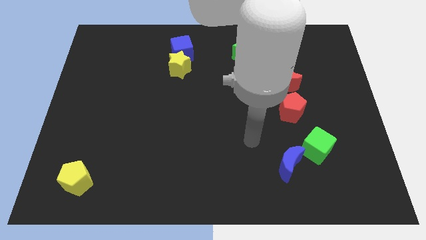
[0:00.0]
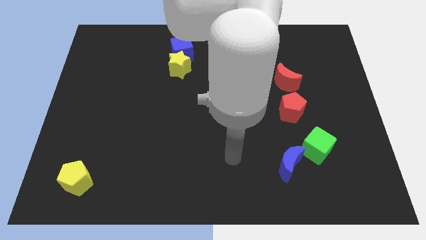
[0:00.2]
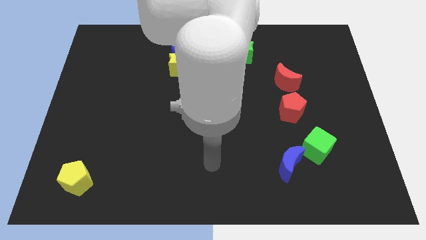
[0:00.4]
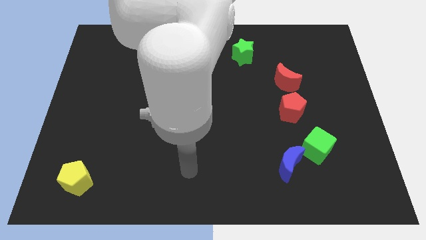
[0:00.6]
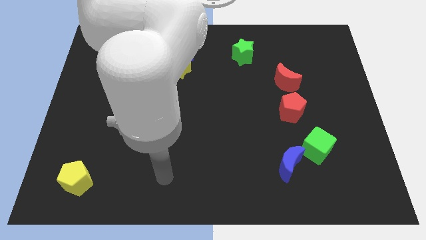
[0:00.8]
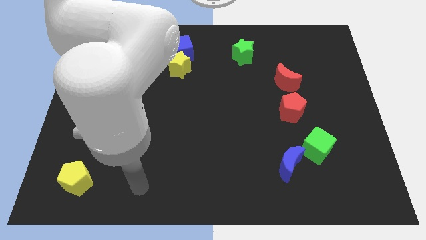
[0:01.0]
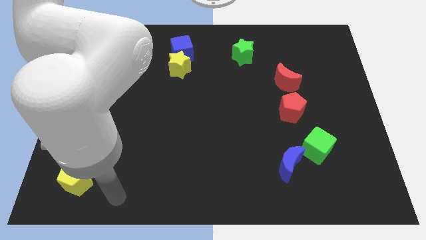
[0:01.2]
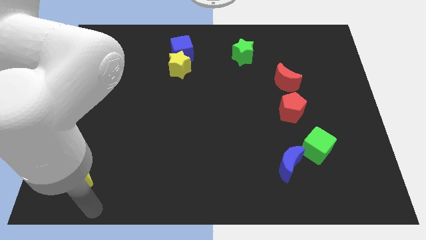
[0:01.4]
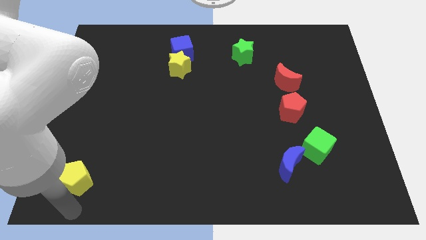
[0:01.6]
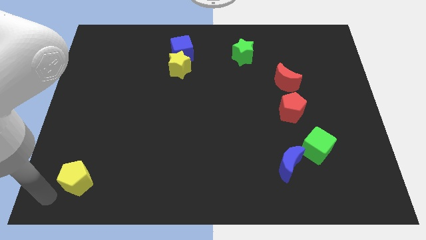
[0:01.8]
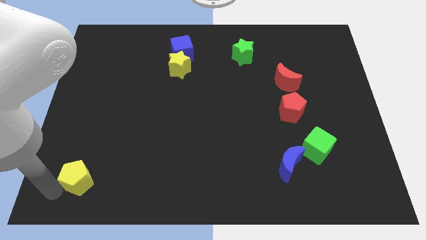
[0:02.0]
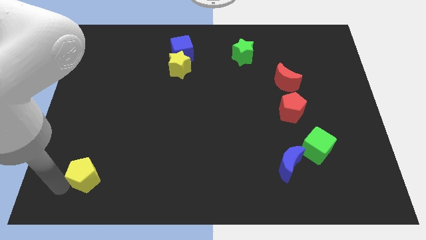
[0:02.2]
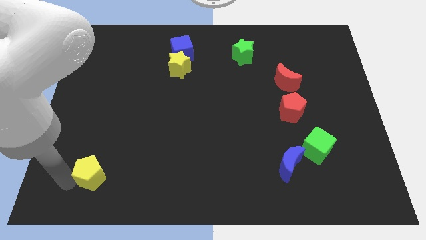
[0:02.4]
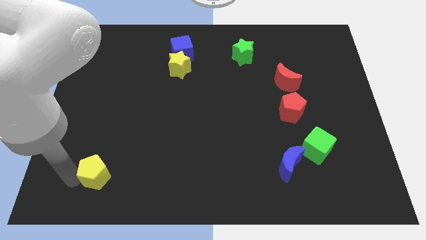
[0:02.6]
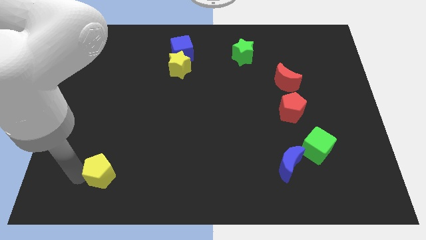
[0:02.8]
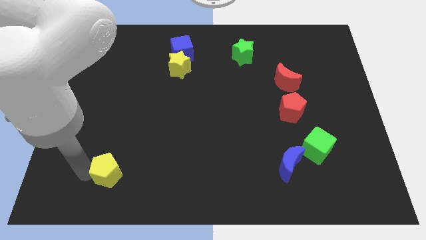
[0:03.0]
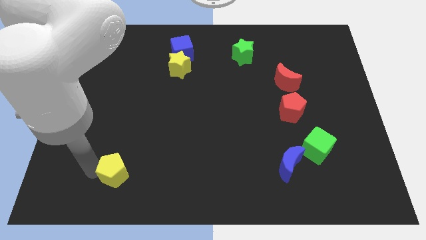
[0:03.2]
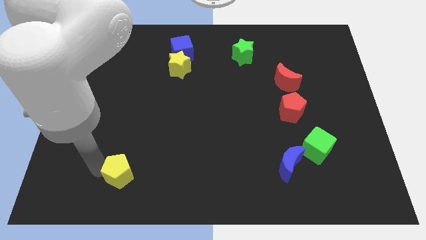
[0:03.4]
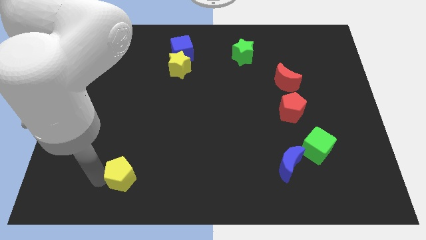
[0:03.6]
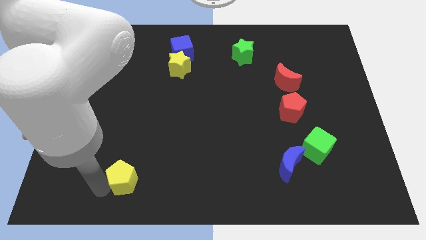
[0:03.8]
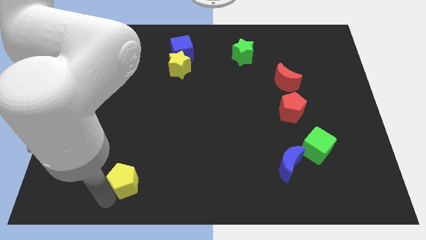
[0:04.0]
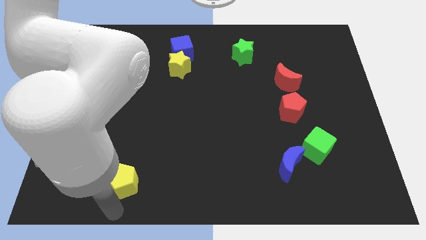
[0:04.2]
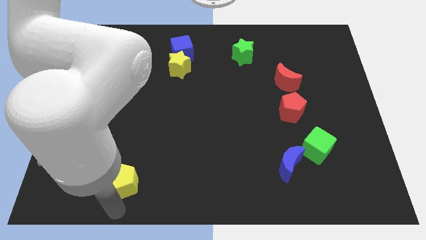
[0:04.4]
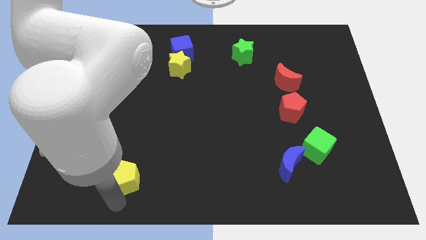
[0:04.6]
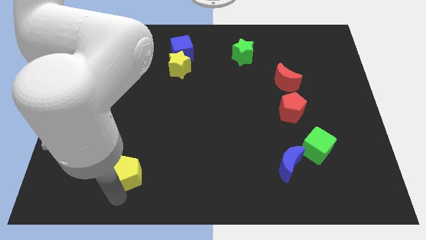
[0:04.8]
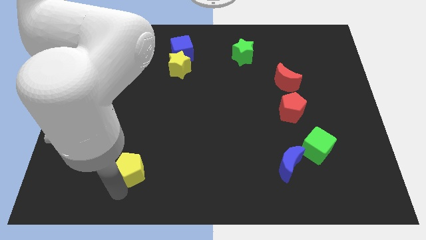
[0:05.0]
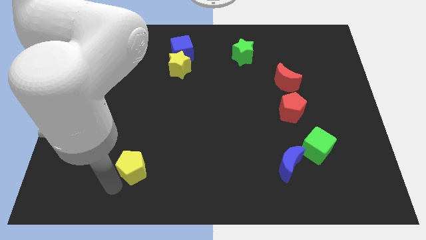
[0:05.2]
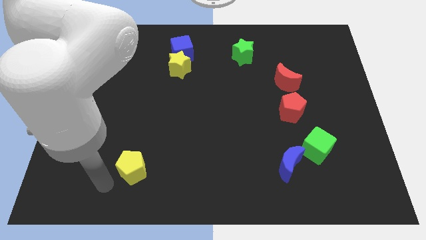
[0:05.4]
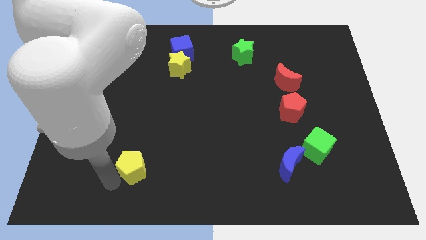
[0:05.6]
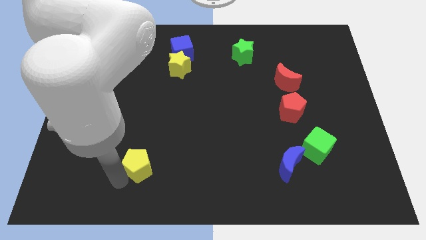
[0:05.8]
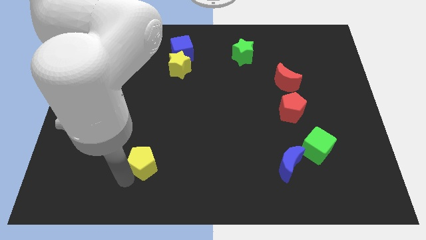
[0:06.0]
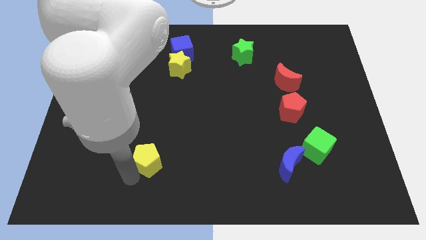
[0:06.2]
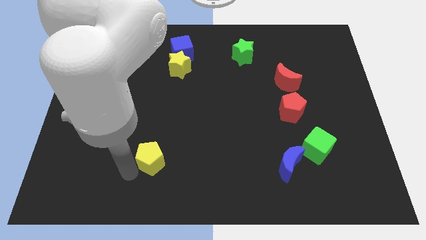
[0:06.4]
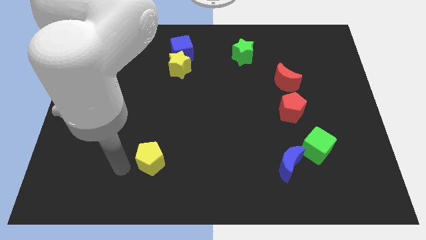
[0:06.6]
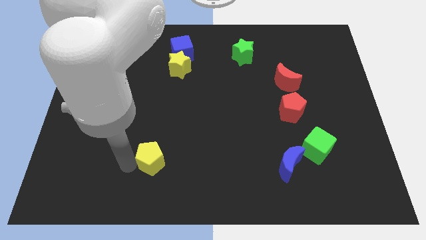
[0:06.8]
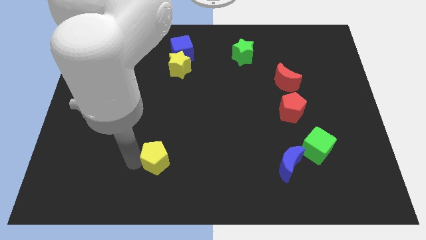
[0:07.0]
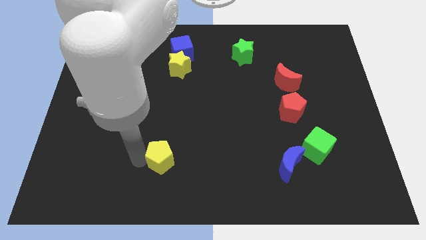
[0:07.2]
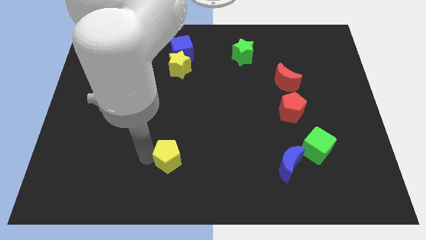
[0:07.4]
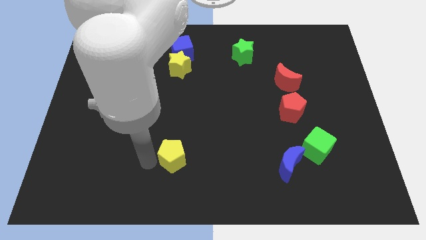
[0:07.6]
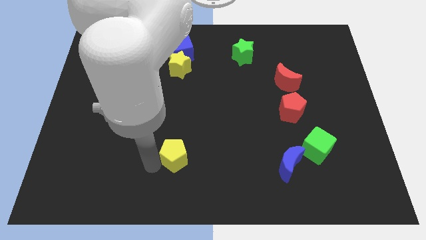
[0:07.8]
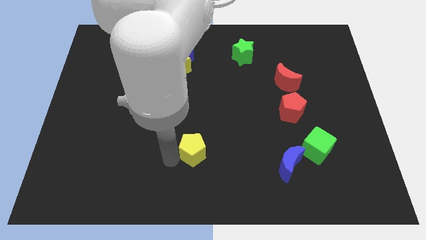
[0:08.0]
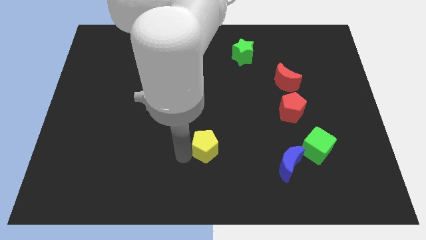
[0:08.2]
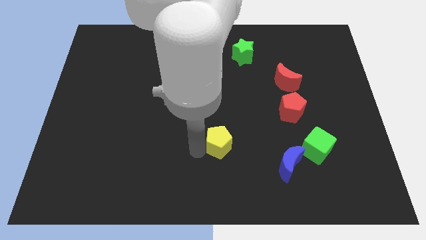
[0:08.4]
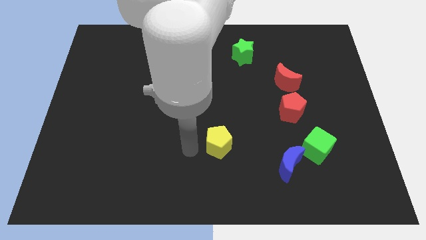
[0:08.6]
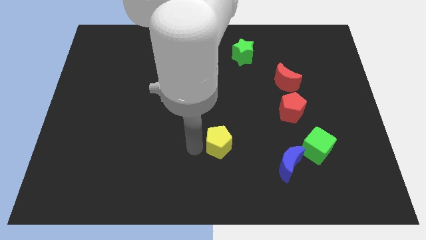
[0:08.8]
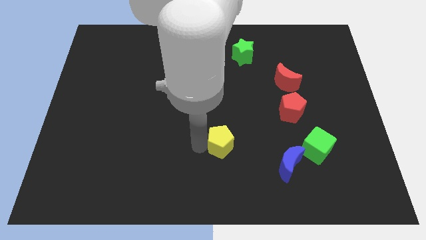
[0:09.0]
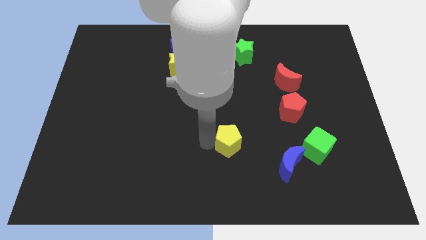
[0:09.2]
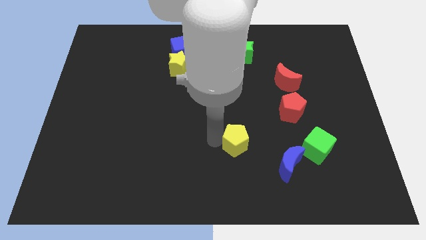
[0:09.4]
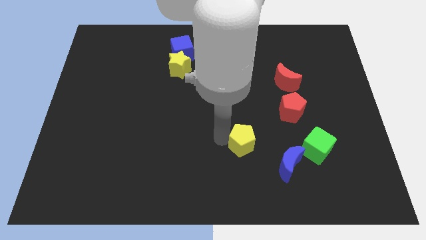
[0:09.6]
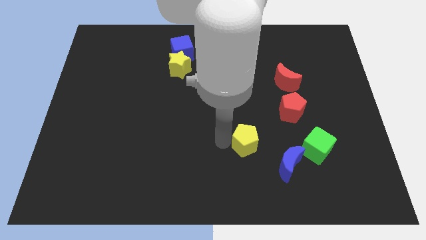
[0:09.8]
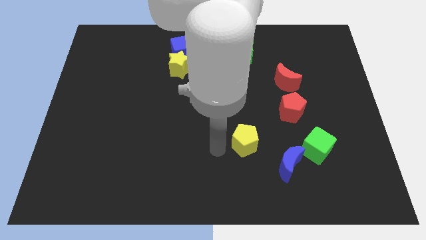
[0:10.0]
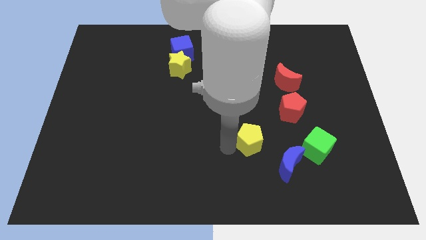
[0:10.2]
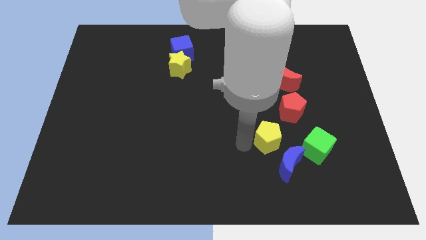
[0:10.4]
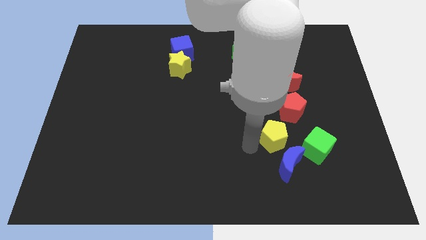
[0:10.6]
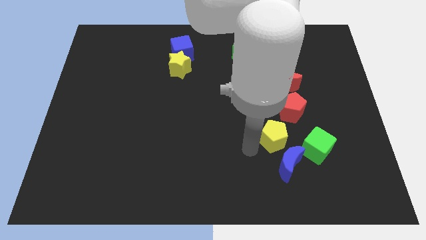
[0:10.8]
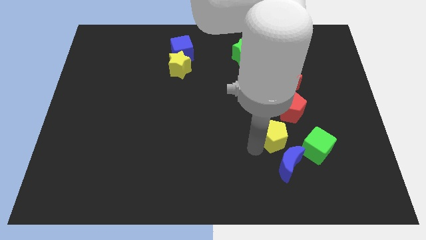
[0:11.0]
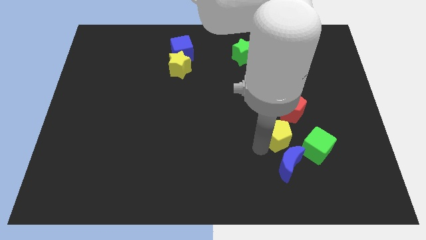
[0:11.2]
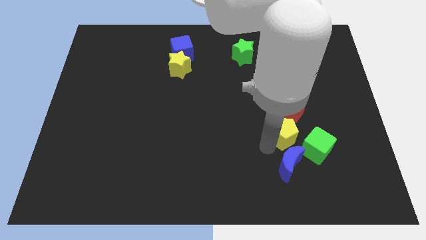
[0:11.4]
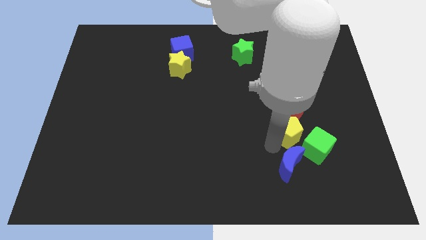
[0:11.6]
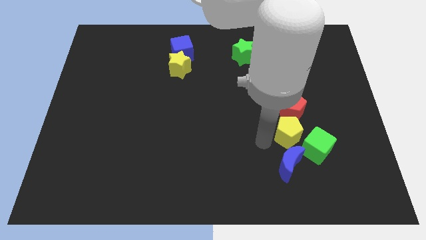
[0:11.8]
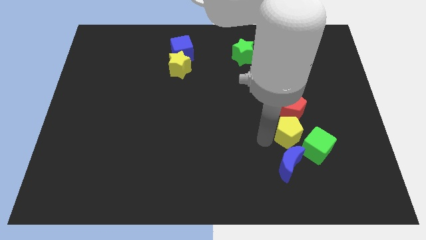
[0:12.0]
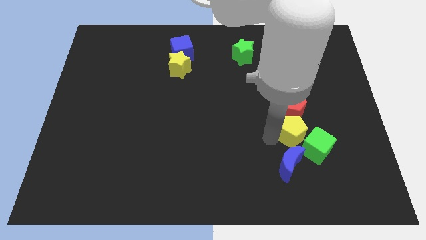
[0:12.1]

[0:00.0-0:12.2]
put the yellow pentagon to the top of the green cube
